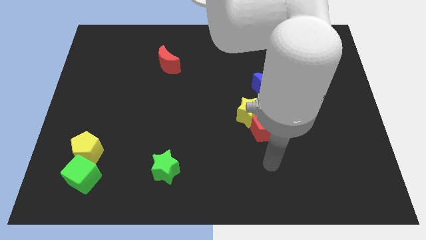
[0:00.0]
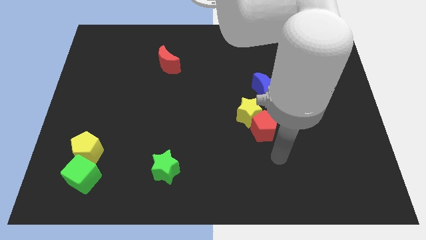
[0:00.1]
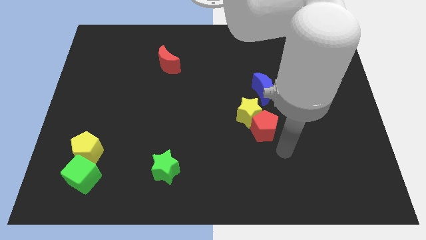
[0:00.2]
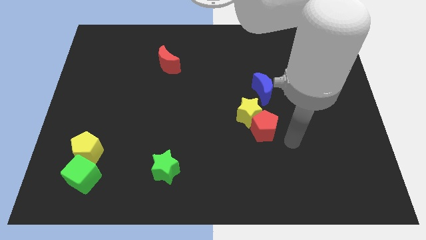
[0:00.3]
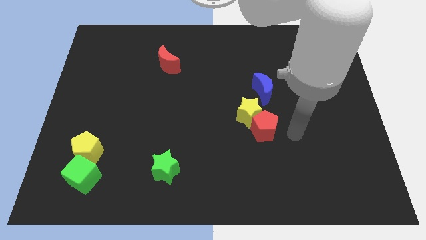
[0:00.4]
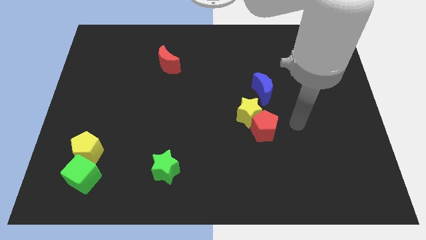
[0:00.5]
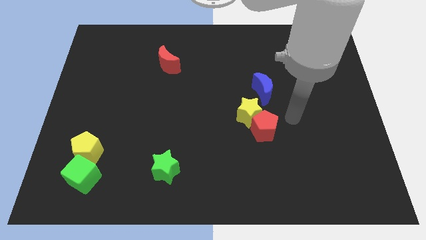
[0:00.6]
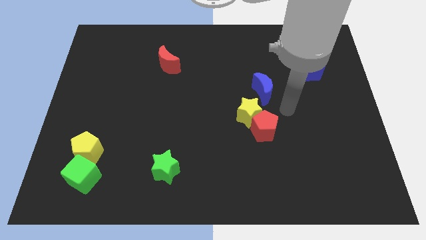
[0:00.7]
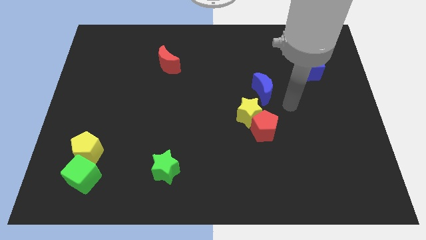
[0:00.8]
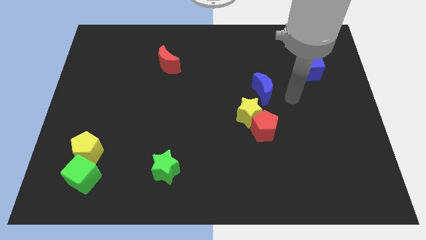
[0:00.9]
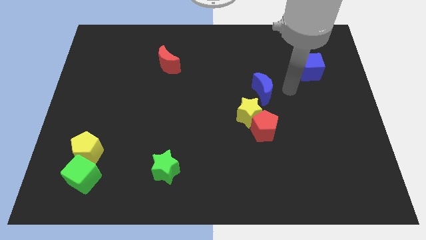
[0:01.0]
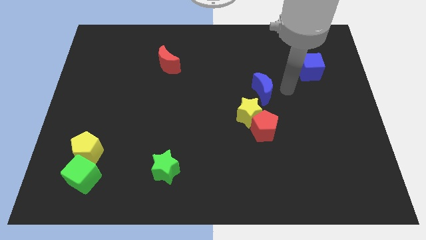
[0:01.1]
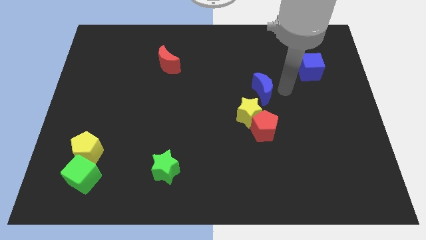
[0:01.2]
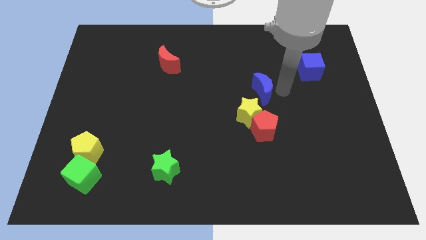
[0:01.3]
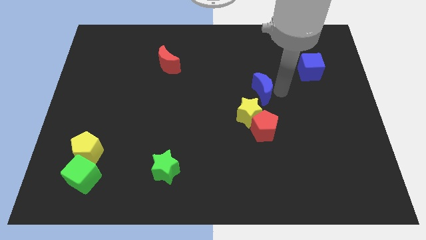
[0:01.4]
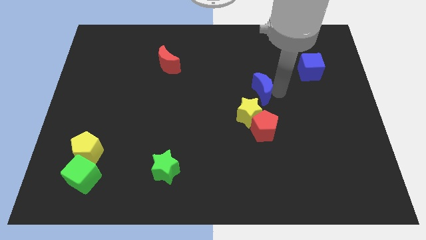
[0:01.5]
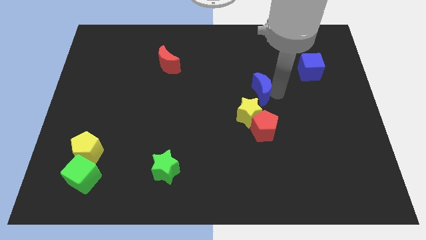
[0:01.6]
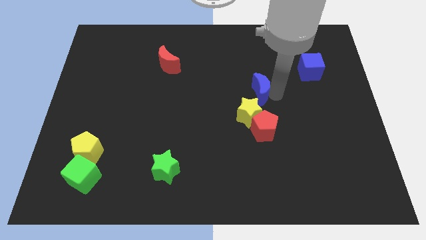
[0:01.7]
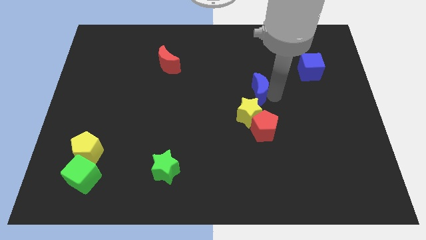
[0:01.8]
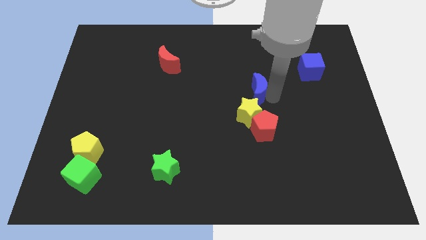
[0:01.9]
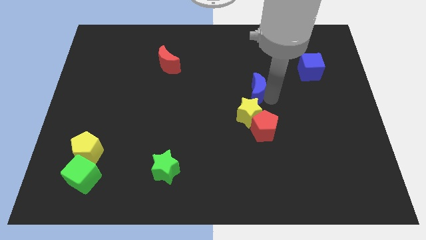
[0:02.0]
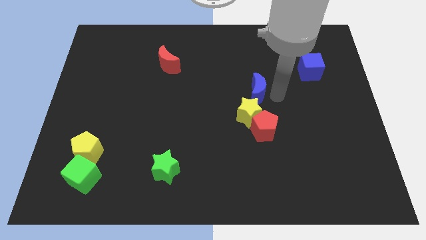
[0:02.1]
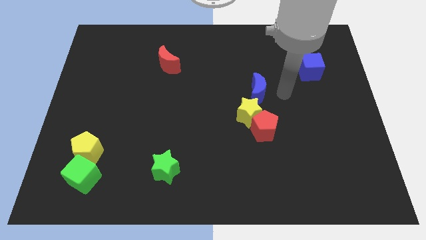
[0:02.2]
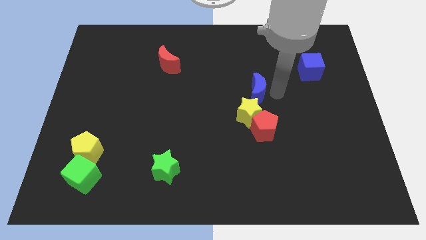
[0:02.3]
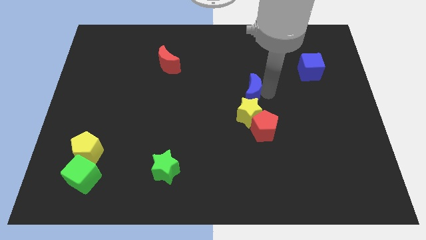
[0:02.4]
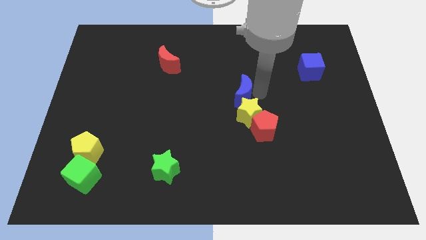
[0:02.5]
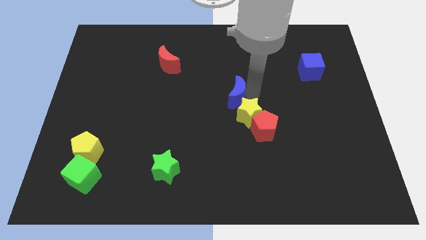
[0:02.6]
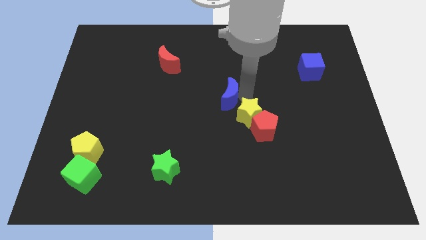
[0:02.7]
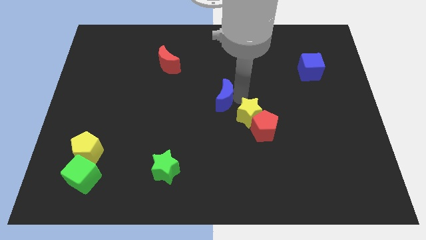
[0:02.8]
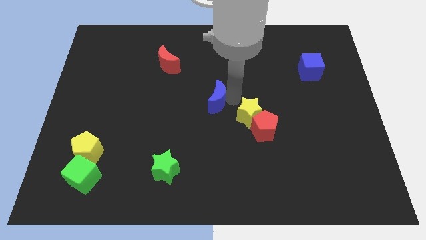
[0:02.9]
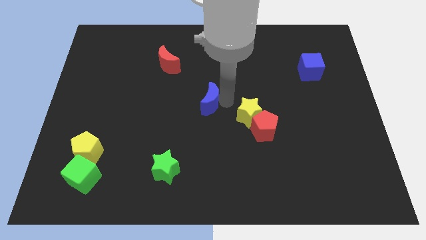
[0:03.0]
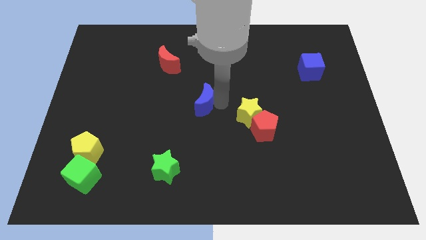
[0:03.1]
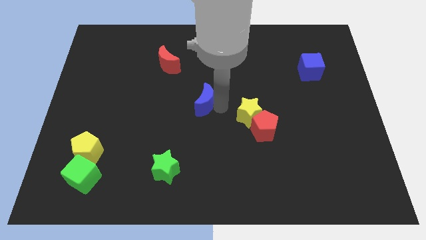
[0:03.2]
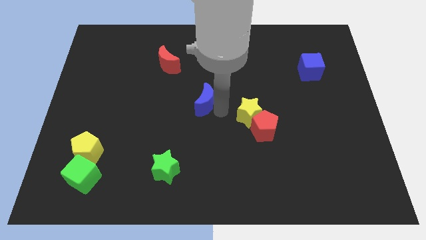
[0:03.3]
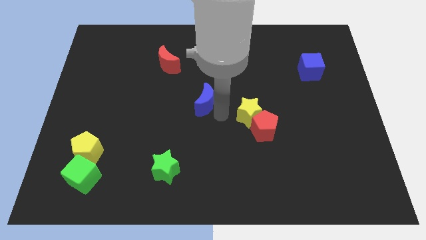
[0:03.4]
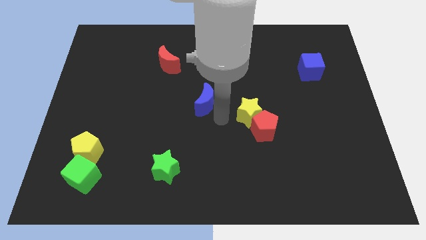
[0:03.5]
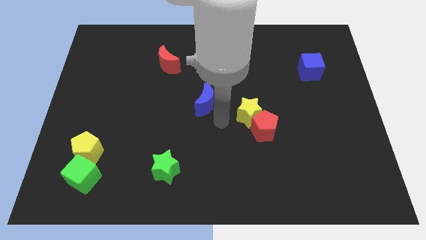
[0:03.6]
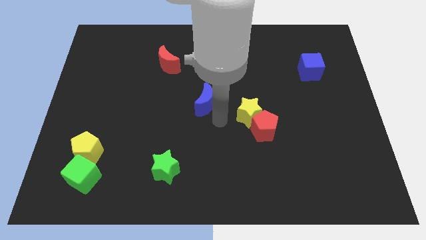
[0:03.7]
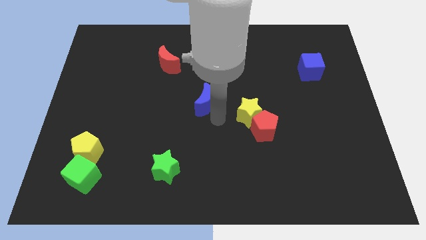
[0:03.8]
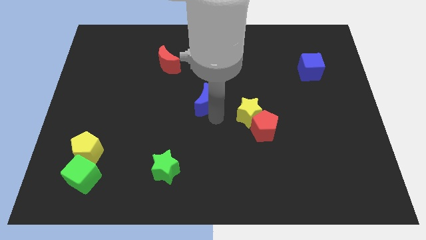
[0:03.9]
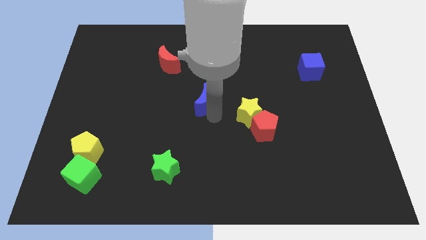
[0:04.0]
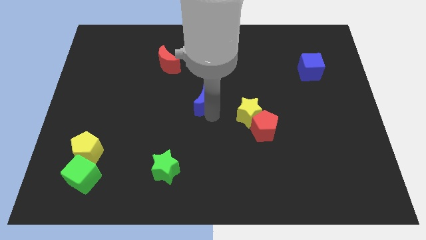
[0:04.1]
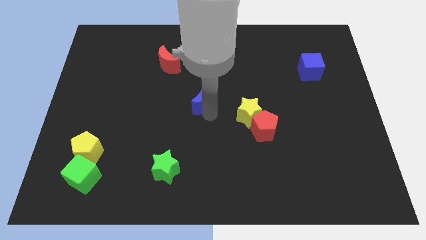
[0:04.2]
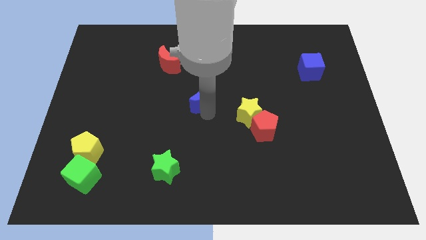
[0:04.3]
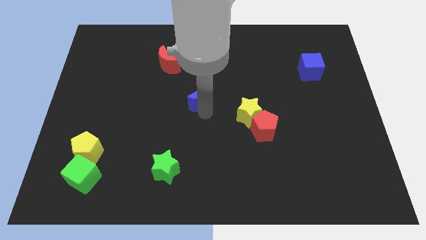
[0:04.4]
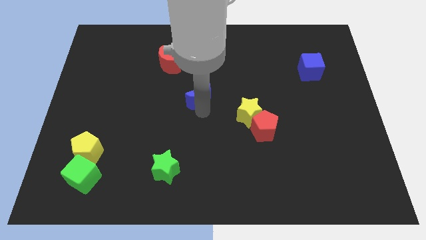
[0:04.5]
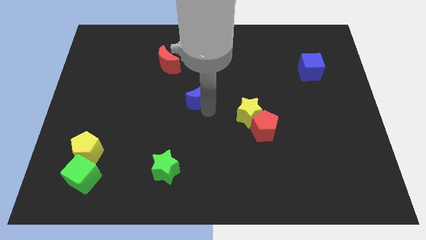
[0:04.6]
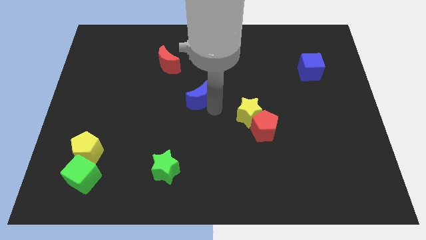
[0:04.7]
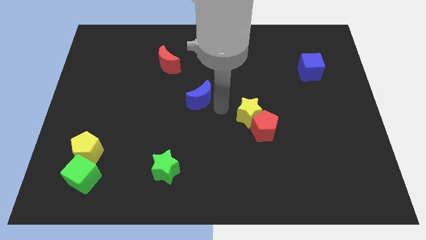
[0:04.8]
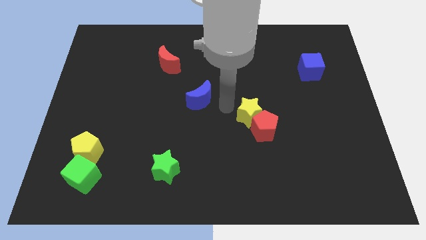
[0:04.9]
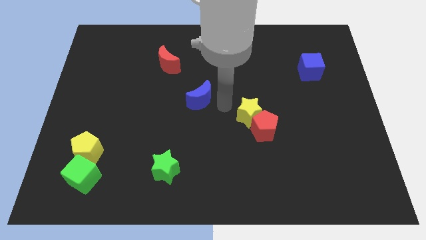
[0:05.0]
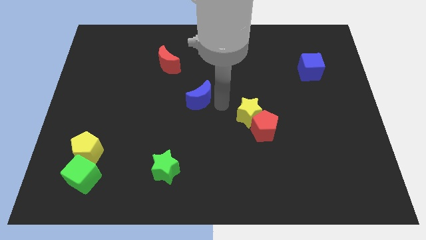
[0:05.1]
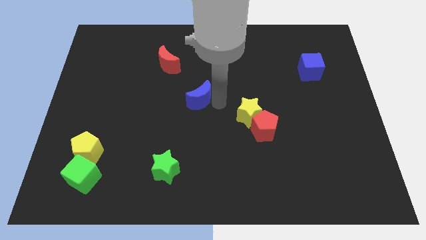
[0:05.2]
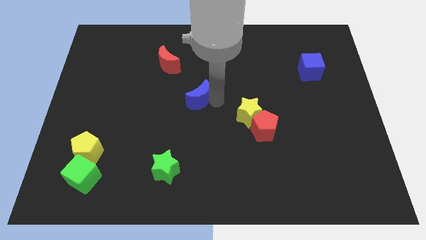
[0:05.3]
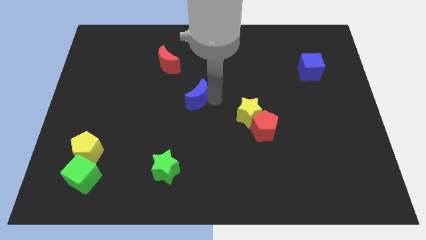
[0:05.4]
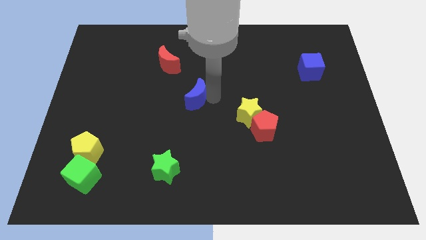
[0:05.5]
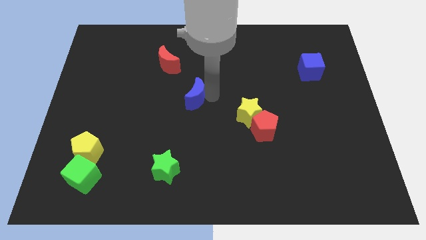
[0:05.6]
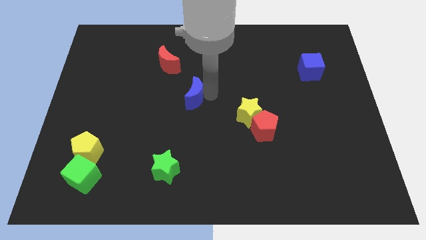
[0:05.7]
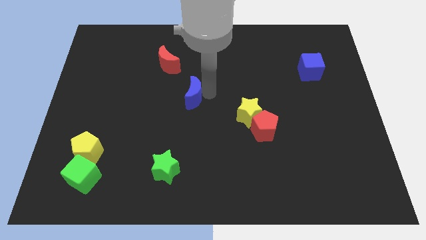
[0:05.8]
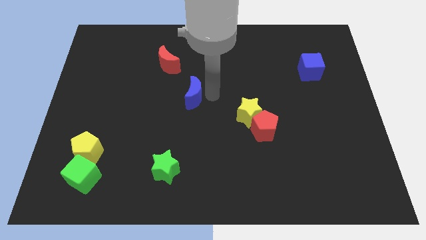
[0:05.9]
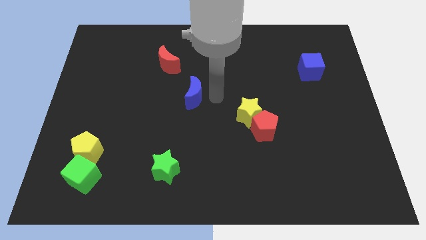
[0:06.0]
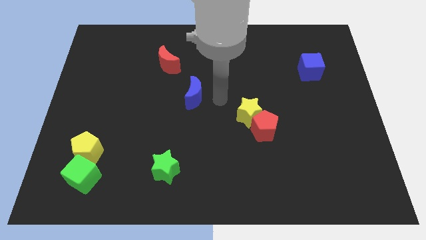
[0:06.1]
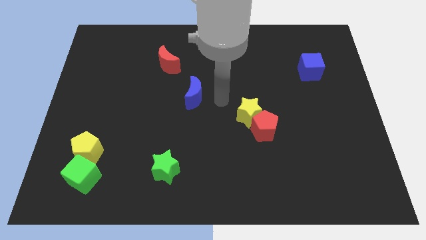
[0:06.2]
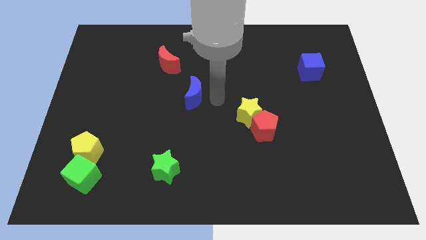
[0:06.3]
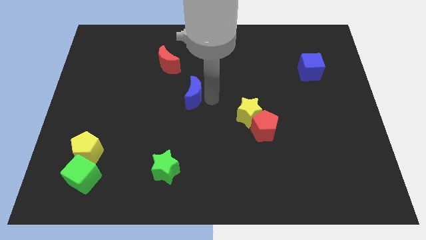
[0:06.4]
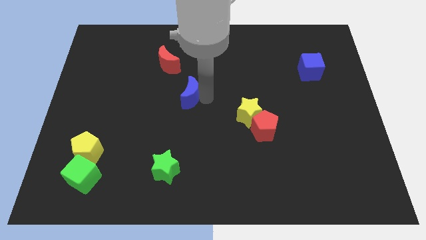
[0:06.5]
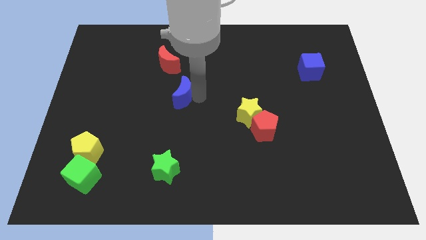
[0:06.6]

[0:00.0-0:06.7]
move the blue moon to the bottom of the red moon
